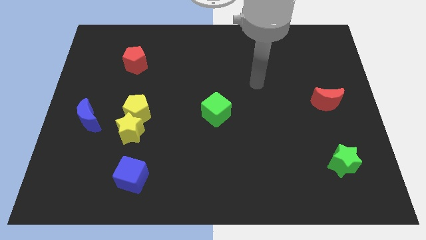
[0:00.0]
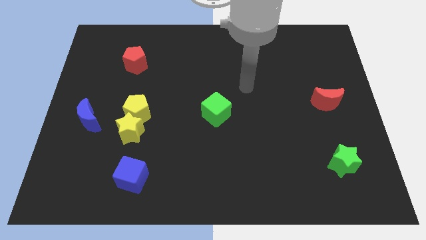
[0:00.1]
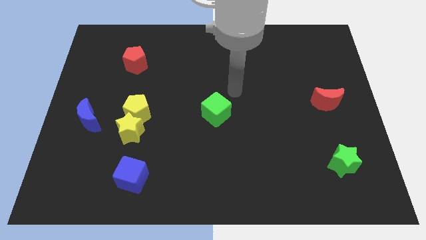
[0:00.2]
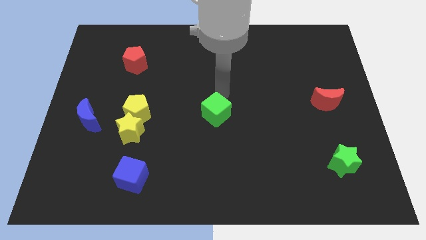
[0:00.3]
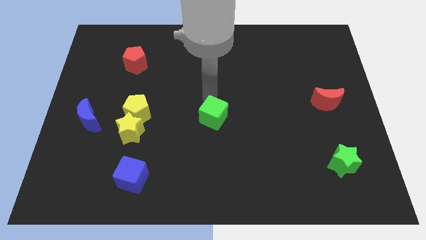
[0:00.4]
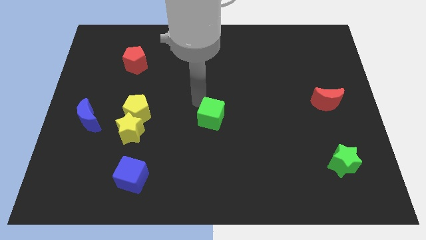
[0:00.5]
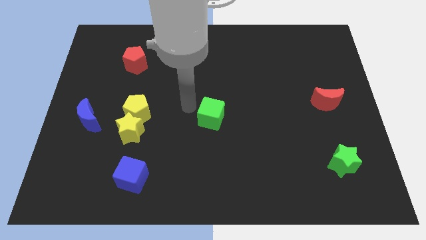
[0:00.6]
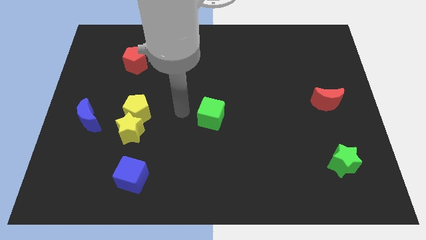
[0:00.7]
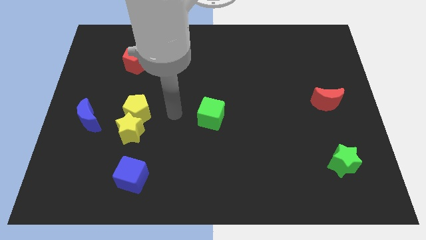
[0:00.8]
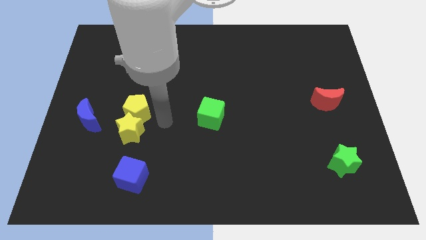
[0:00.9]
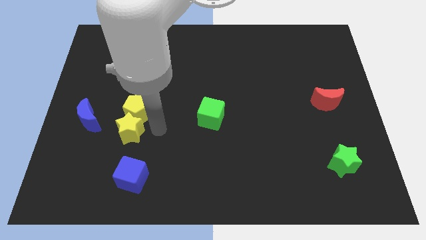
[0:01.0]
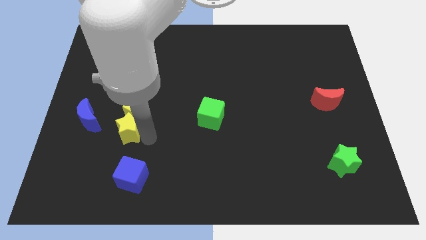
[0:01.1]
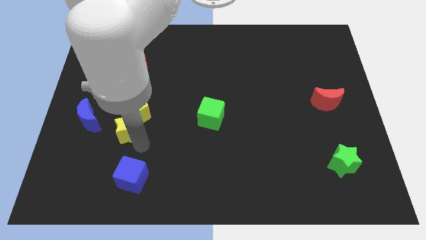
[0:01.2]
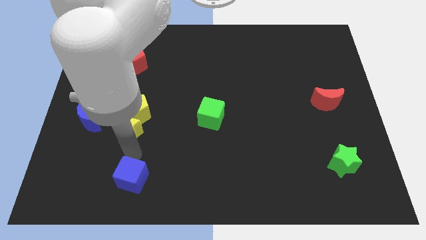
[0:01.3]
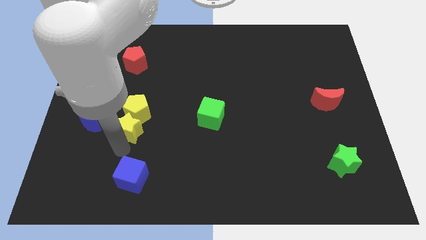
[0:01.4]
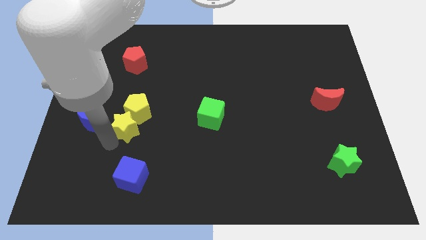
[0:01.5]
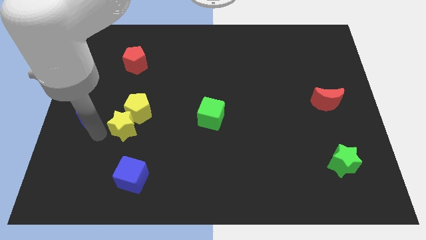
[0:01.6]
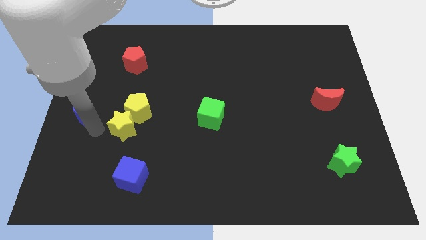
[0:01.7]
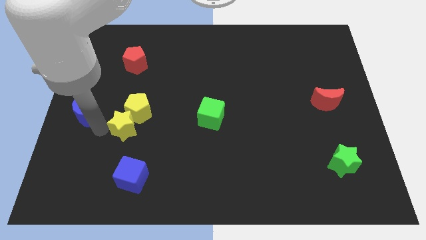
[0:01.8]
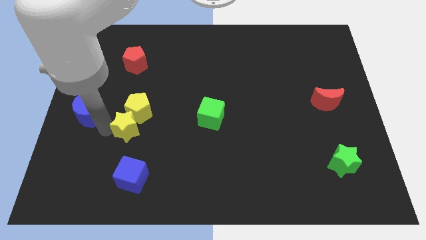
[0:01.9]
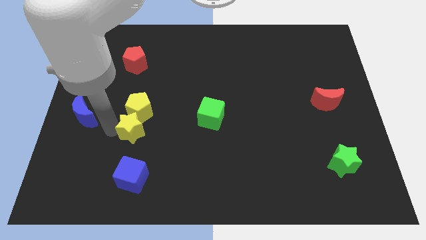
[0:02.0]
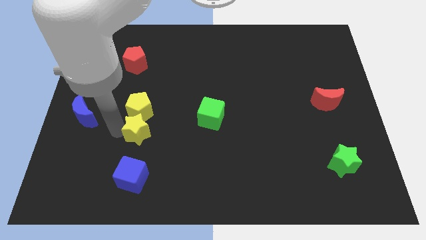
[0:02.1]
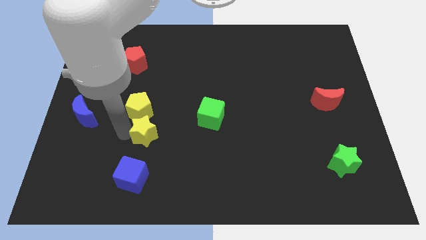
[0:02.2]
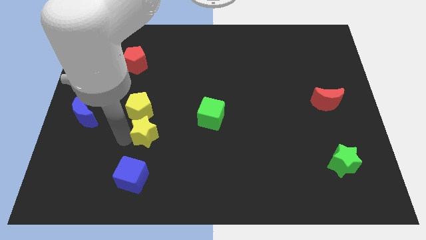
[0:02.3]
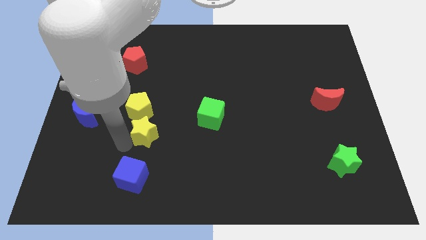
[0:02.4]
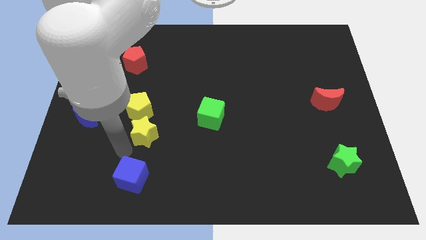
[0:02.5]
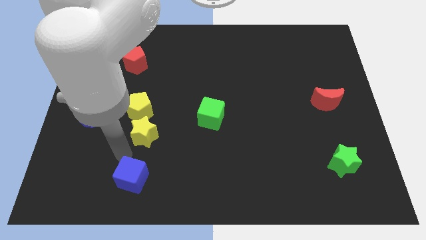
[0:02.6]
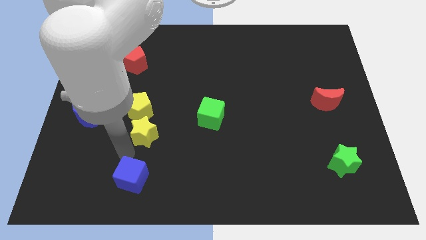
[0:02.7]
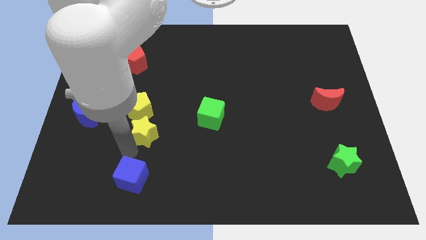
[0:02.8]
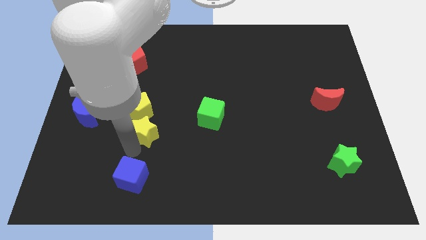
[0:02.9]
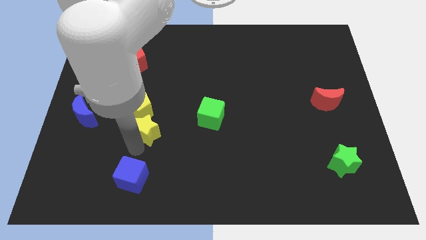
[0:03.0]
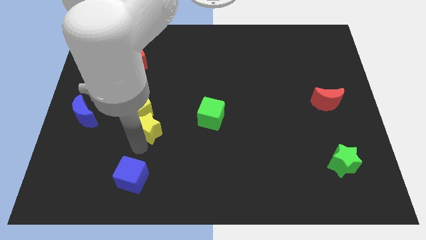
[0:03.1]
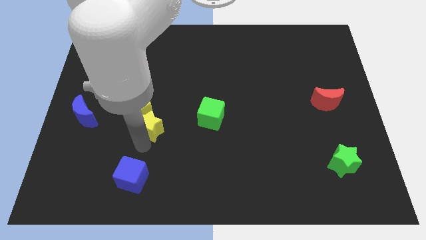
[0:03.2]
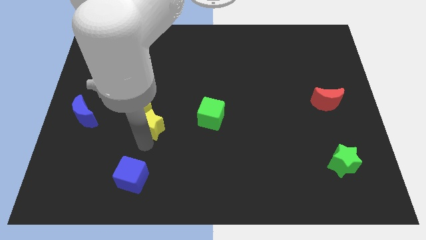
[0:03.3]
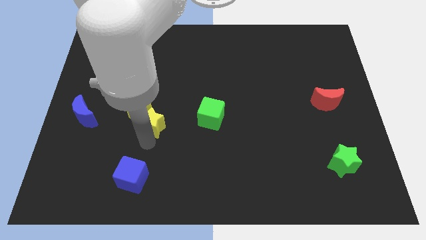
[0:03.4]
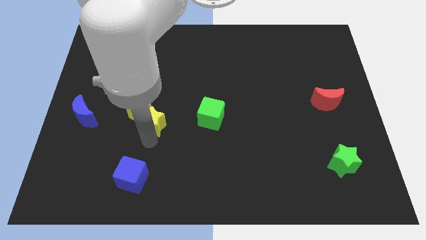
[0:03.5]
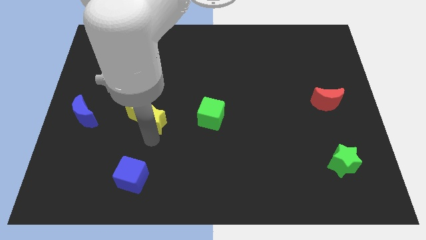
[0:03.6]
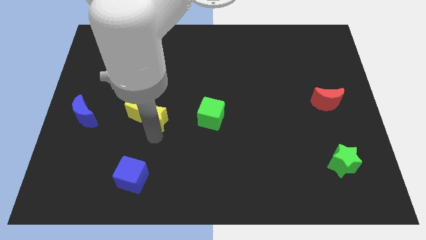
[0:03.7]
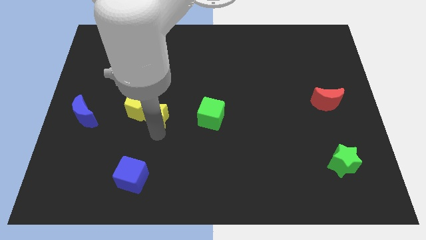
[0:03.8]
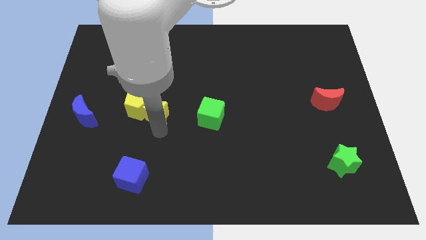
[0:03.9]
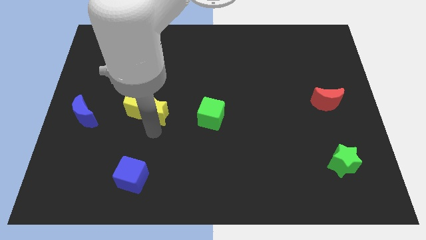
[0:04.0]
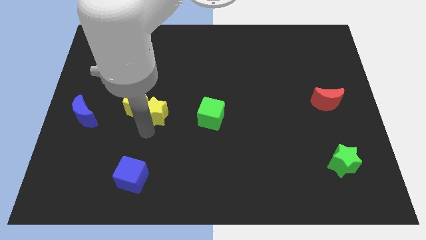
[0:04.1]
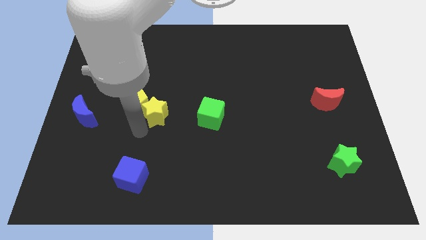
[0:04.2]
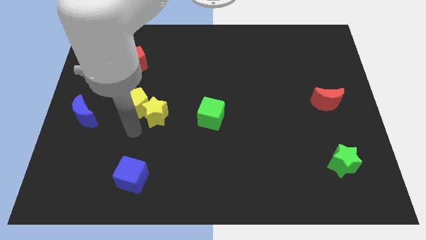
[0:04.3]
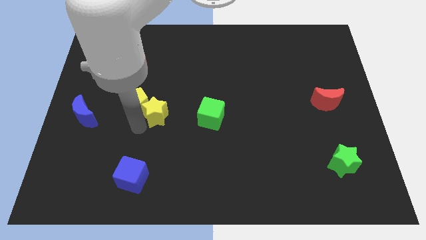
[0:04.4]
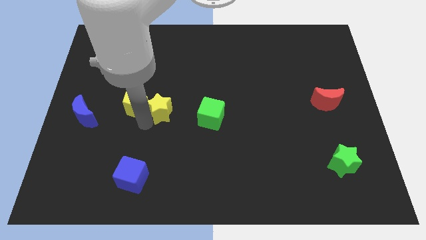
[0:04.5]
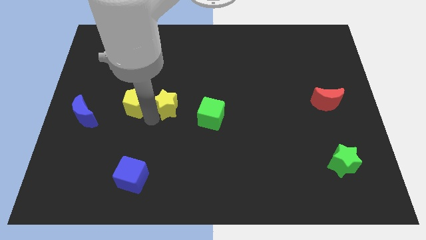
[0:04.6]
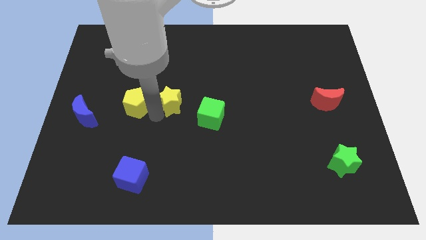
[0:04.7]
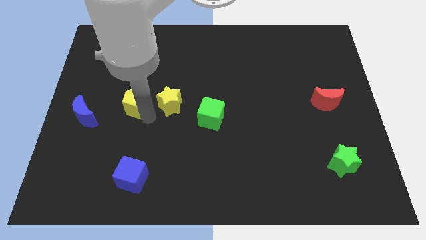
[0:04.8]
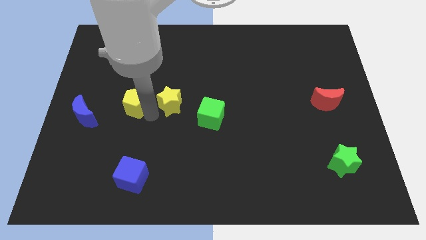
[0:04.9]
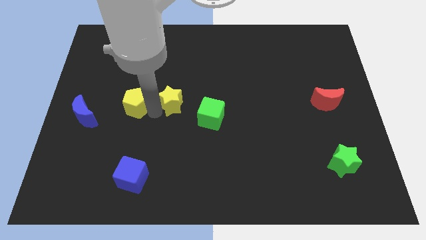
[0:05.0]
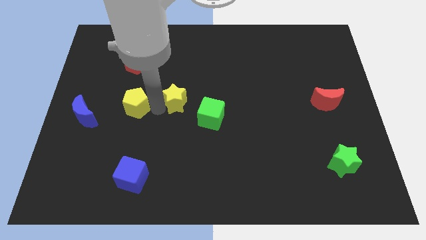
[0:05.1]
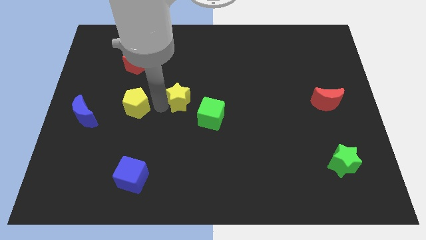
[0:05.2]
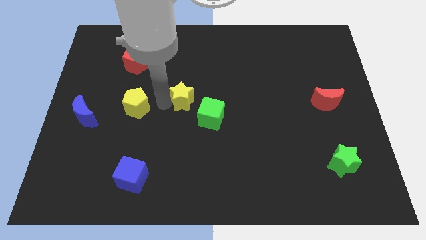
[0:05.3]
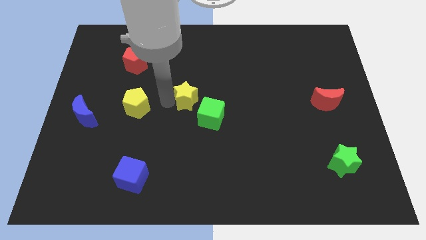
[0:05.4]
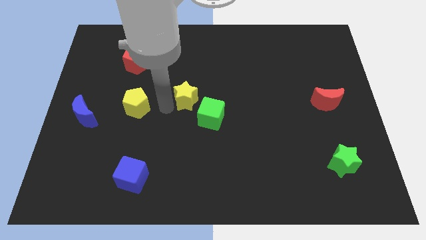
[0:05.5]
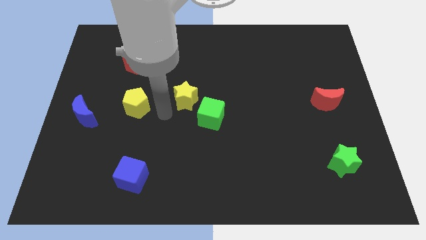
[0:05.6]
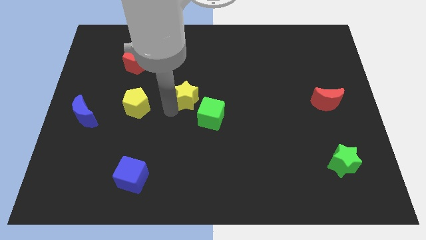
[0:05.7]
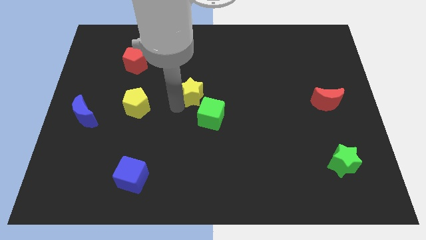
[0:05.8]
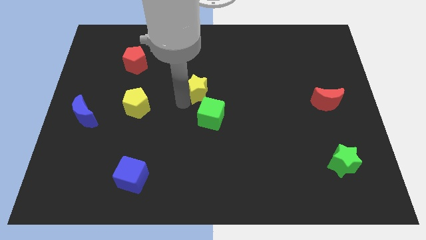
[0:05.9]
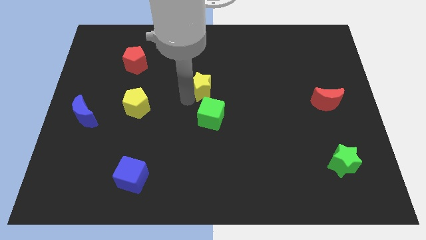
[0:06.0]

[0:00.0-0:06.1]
push the yellow star up and then right

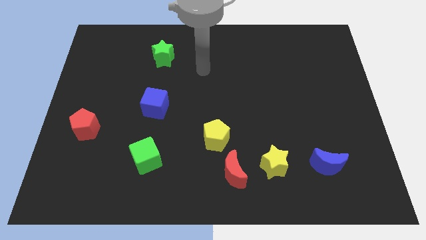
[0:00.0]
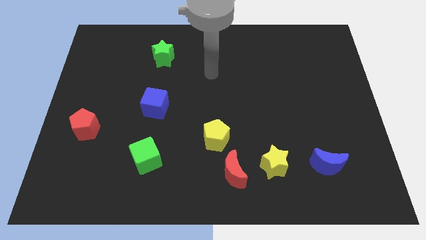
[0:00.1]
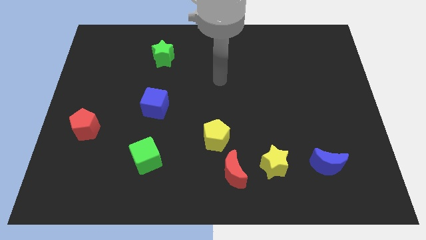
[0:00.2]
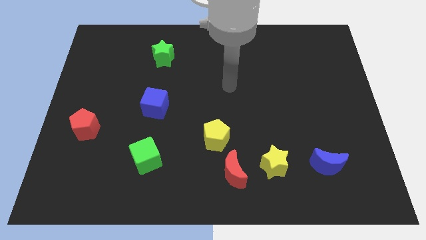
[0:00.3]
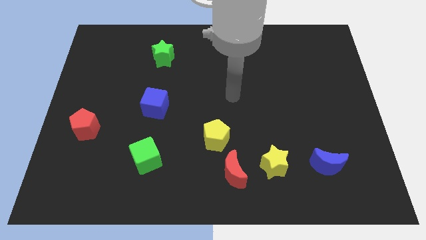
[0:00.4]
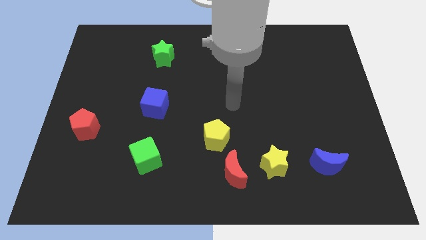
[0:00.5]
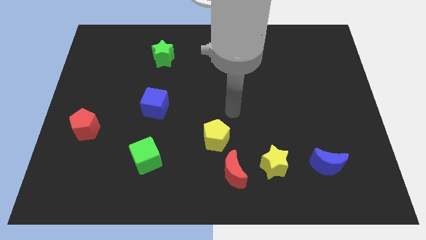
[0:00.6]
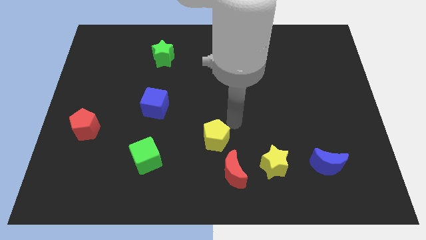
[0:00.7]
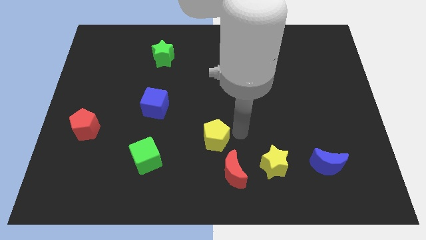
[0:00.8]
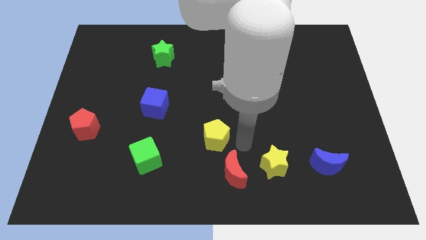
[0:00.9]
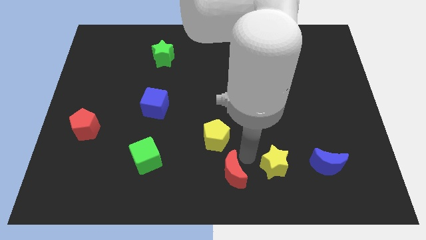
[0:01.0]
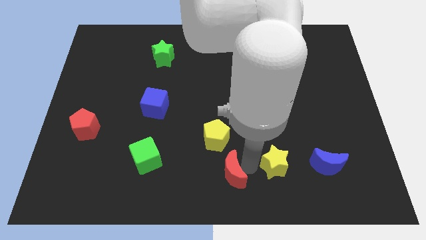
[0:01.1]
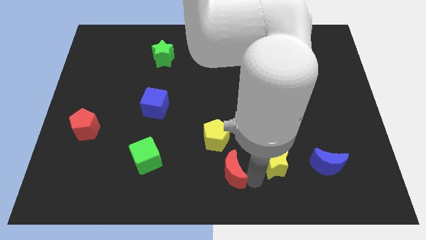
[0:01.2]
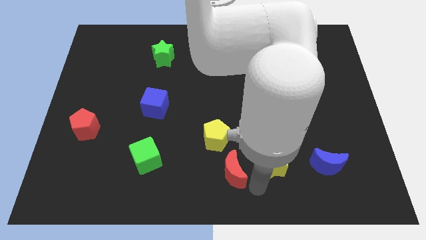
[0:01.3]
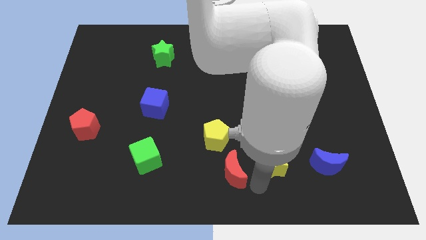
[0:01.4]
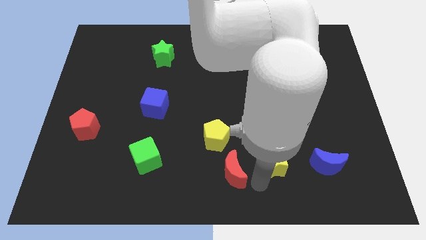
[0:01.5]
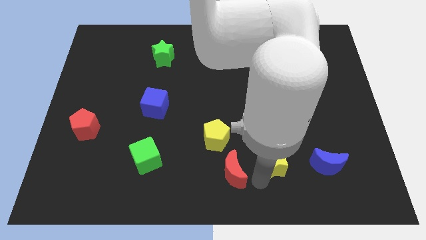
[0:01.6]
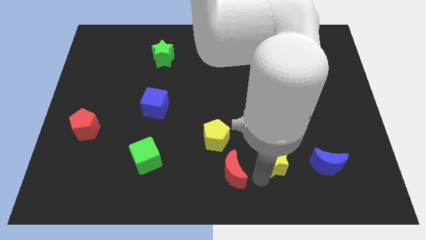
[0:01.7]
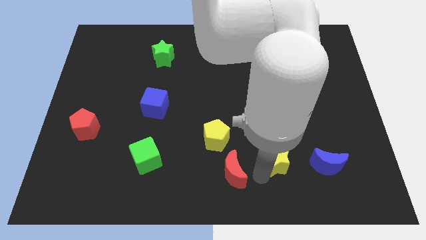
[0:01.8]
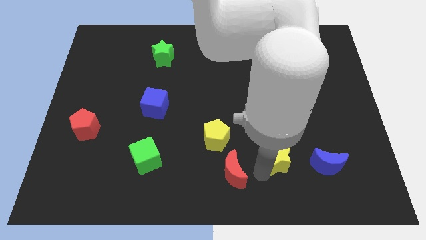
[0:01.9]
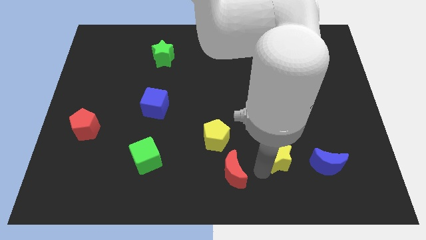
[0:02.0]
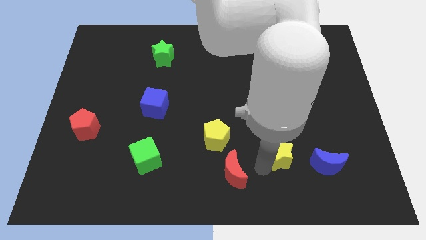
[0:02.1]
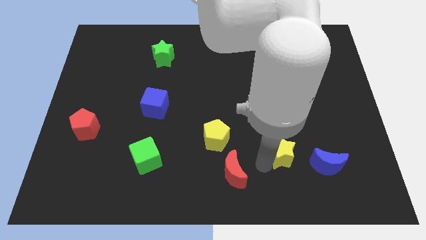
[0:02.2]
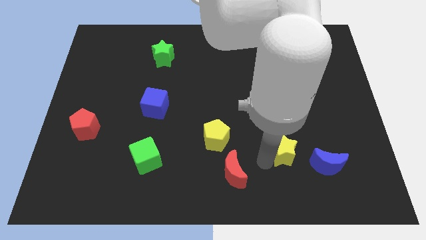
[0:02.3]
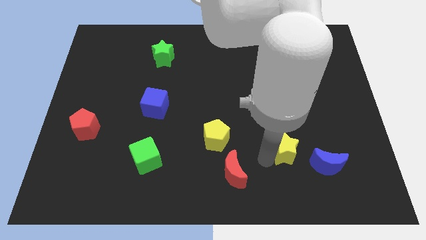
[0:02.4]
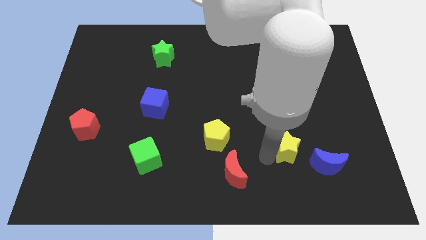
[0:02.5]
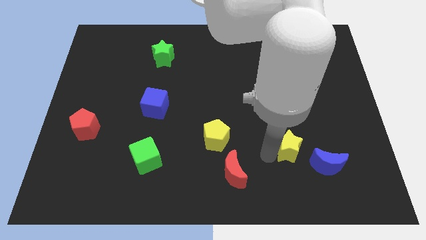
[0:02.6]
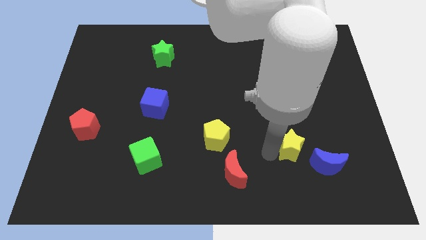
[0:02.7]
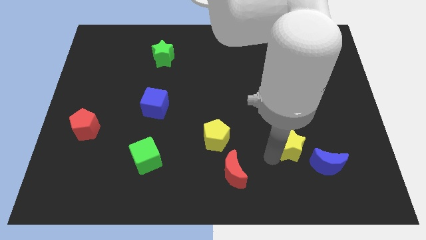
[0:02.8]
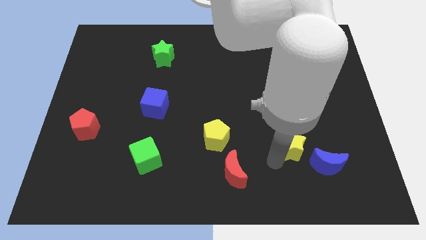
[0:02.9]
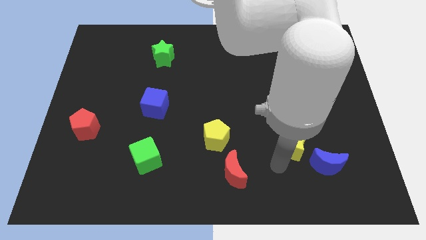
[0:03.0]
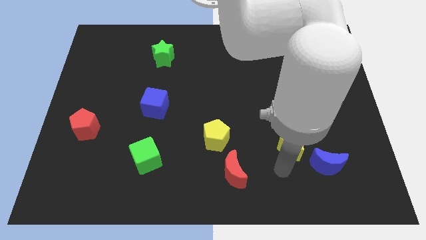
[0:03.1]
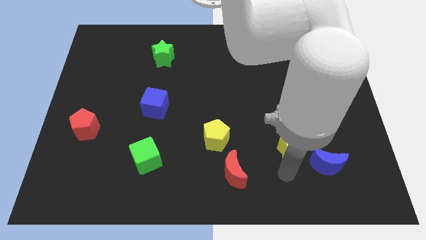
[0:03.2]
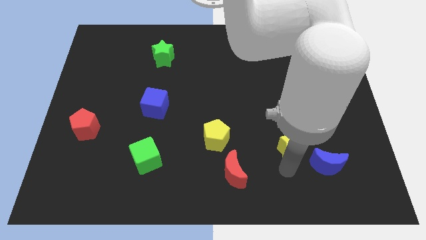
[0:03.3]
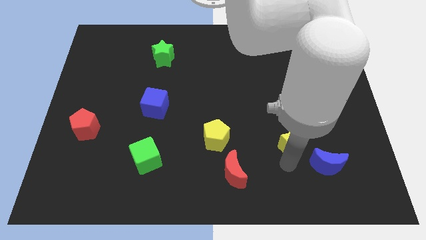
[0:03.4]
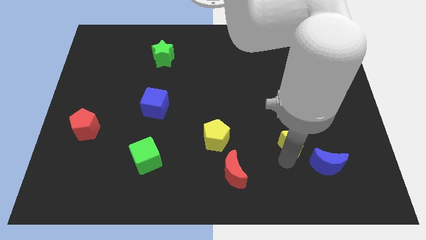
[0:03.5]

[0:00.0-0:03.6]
move the yellow star a little bit up and then right
